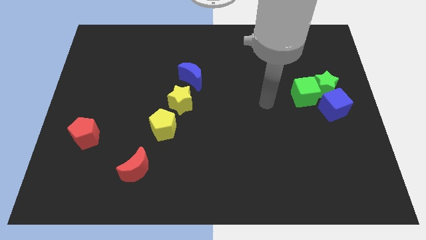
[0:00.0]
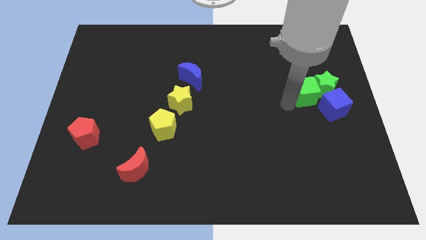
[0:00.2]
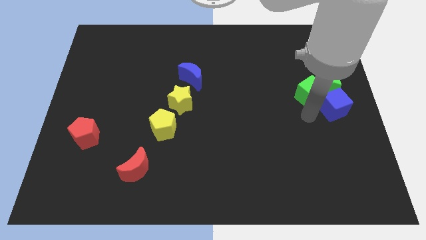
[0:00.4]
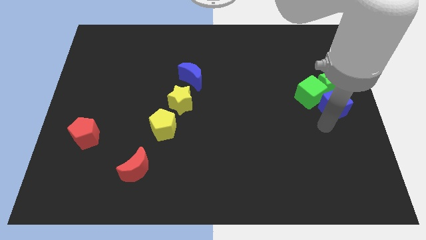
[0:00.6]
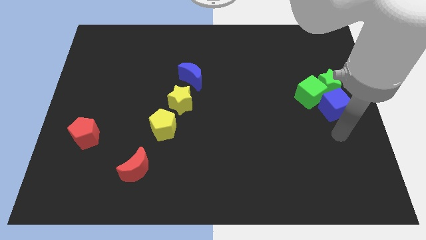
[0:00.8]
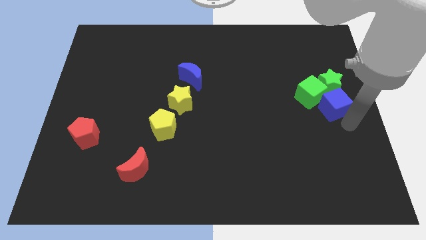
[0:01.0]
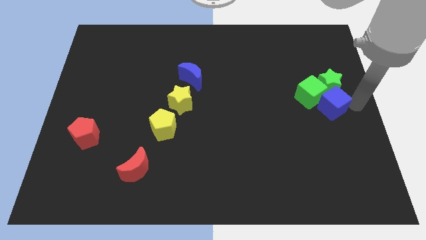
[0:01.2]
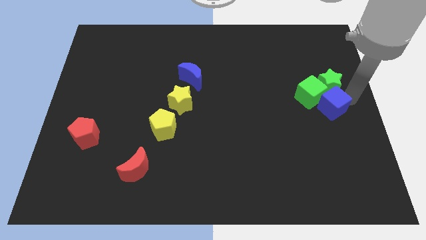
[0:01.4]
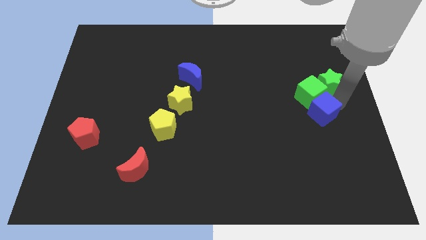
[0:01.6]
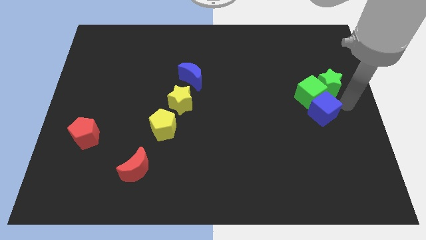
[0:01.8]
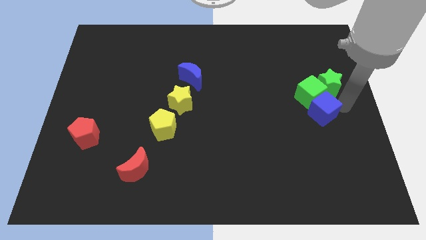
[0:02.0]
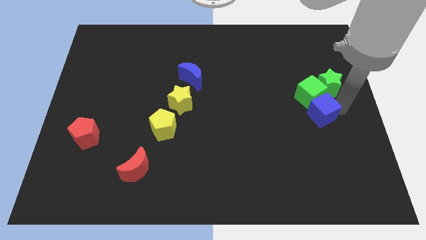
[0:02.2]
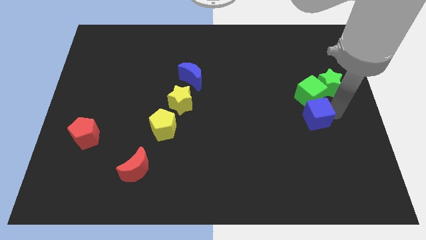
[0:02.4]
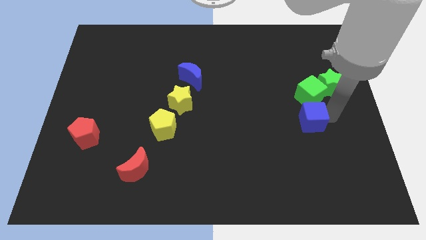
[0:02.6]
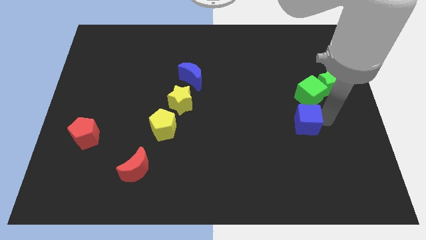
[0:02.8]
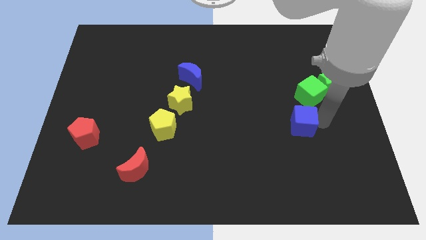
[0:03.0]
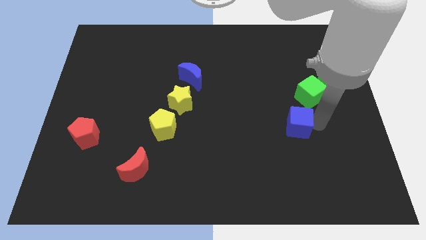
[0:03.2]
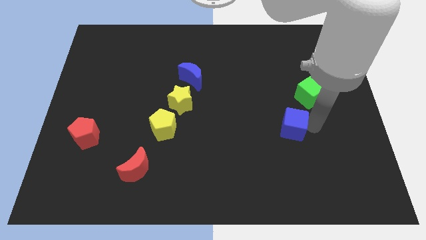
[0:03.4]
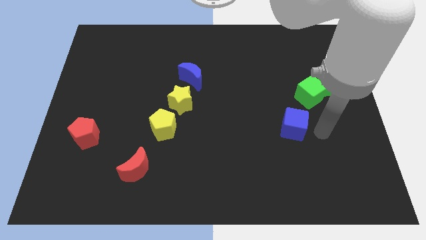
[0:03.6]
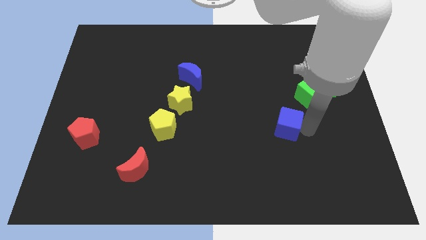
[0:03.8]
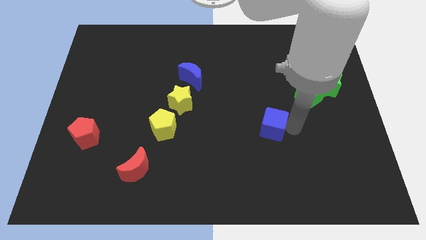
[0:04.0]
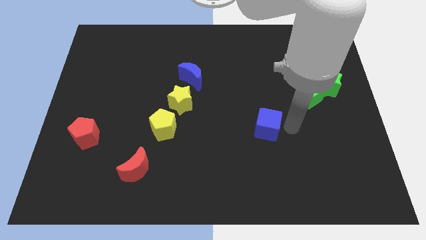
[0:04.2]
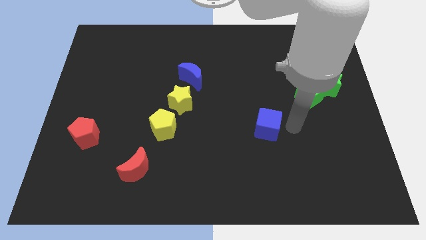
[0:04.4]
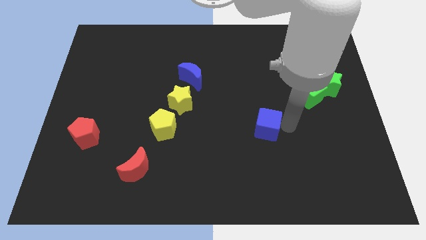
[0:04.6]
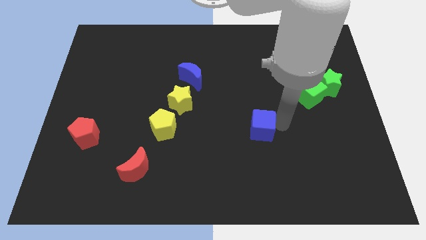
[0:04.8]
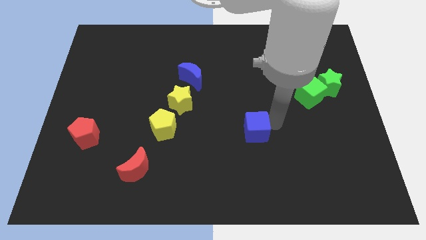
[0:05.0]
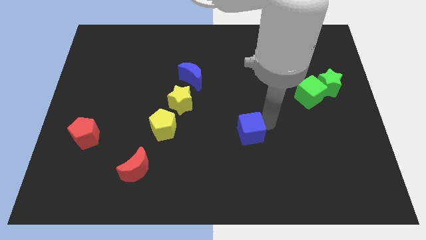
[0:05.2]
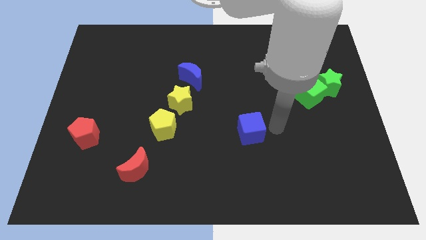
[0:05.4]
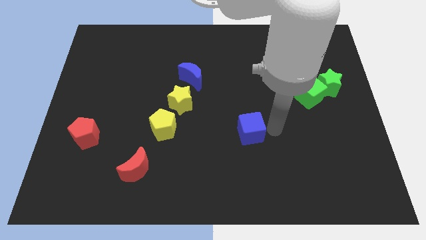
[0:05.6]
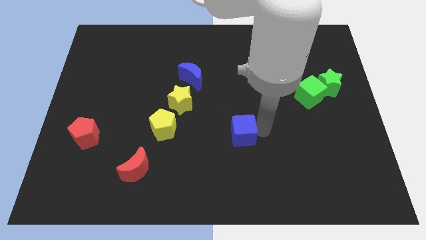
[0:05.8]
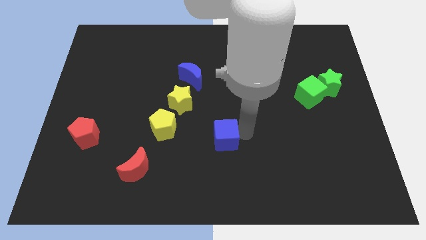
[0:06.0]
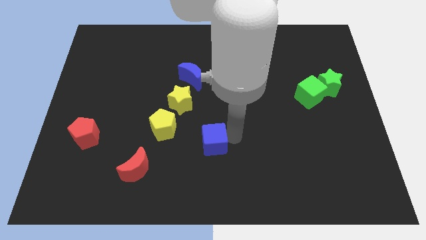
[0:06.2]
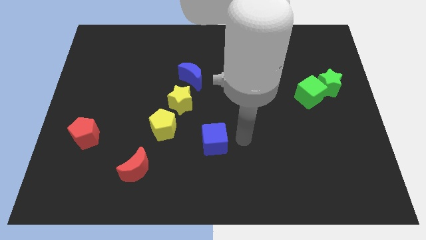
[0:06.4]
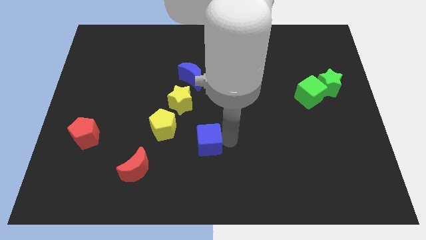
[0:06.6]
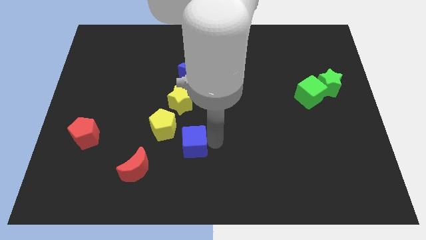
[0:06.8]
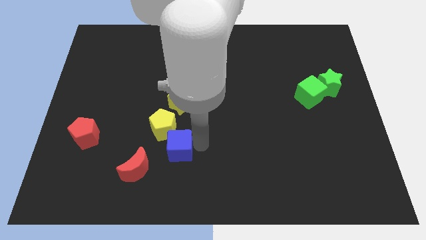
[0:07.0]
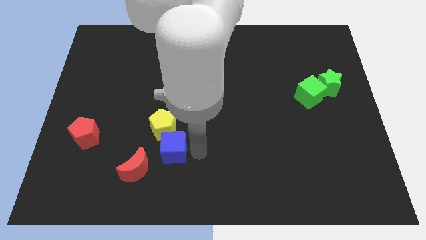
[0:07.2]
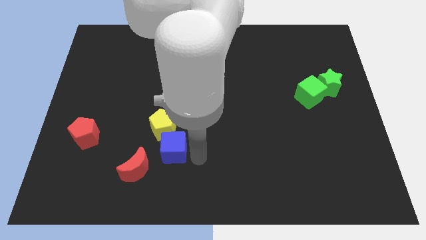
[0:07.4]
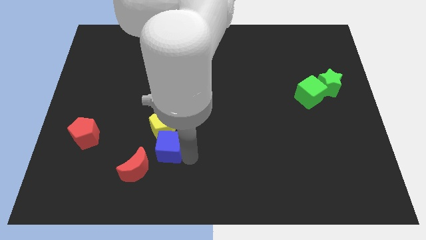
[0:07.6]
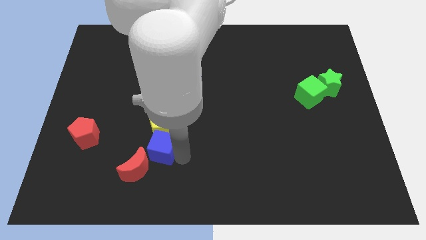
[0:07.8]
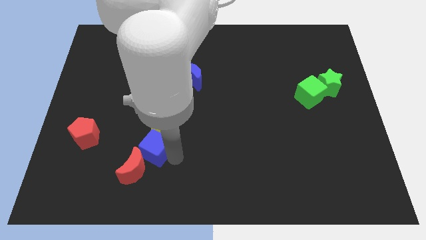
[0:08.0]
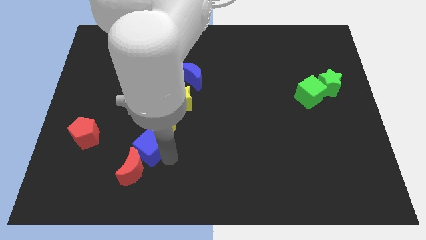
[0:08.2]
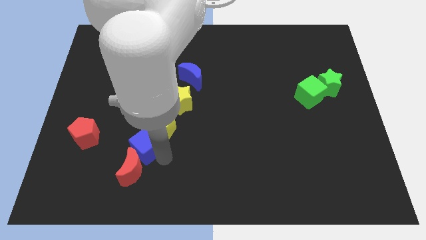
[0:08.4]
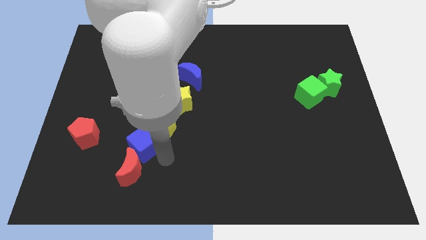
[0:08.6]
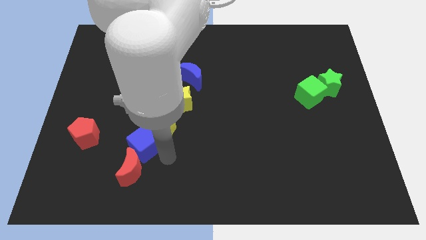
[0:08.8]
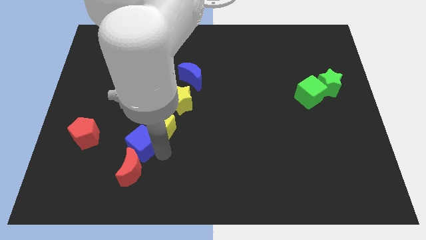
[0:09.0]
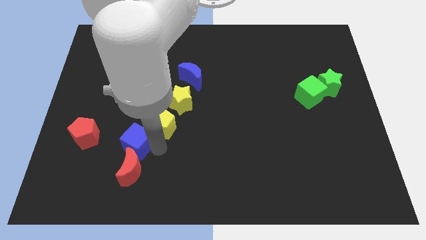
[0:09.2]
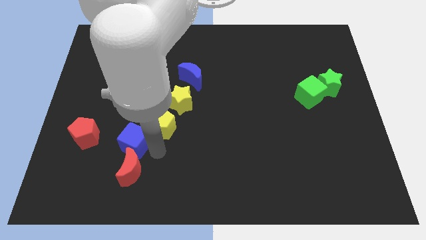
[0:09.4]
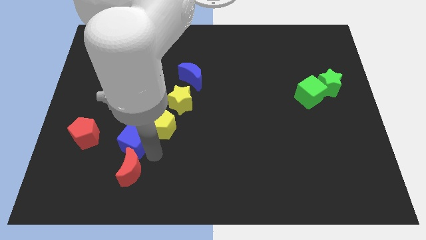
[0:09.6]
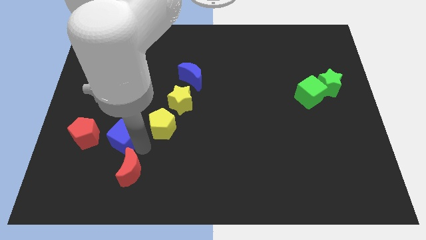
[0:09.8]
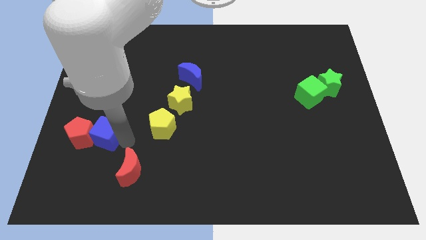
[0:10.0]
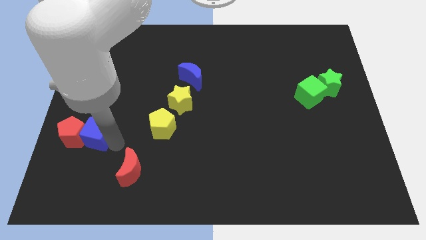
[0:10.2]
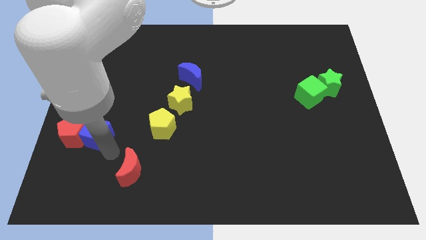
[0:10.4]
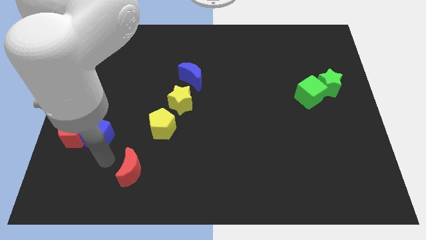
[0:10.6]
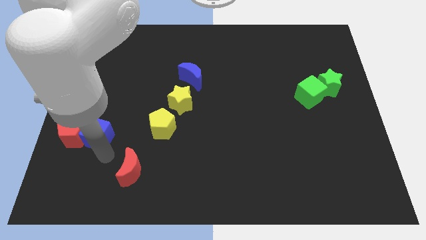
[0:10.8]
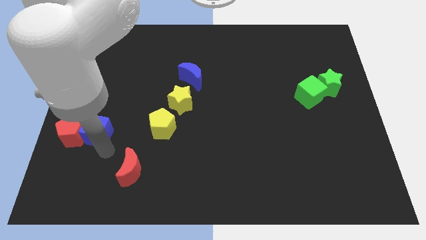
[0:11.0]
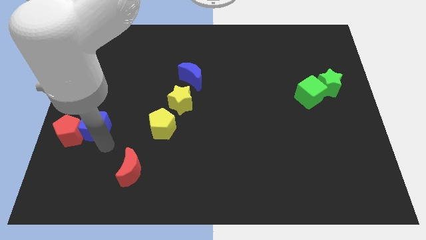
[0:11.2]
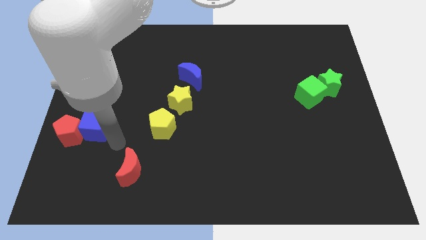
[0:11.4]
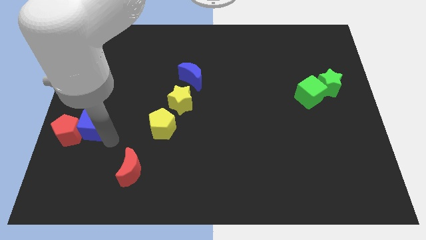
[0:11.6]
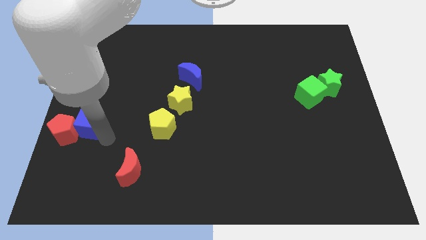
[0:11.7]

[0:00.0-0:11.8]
move the blue cube to the center left
